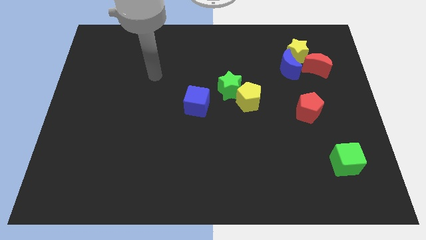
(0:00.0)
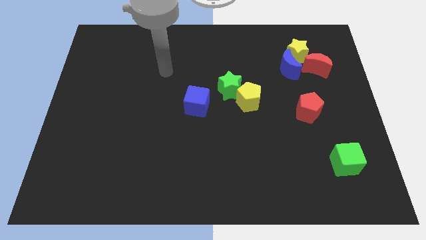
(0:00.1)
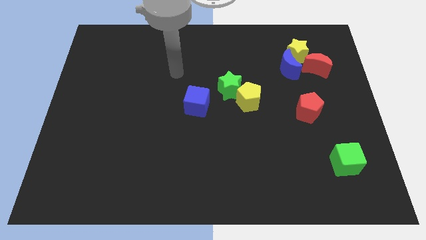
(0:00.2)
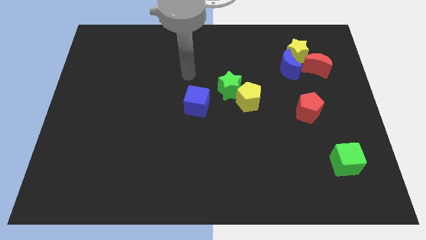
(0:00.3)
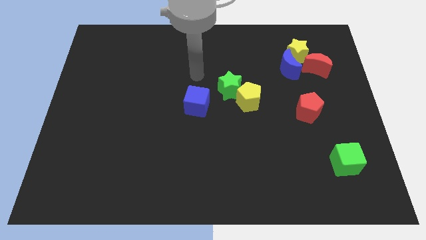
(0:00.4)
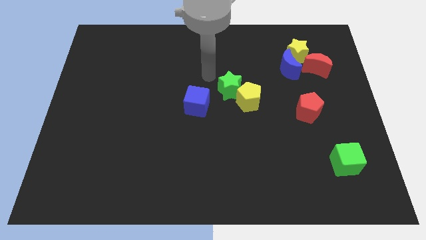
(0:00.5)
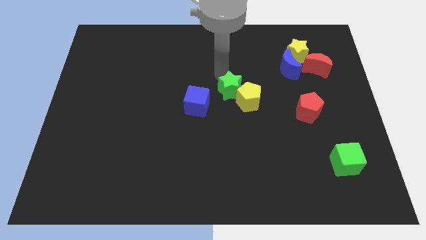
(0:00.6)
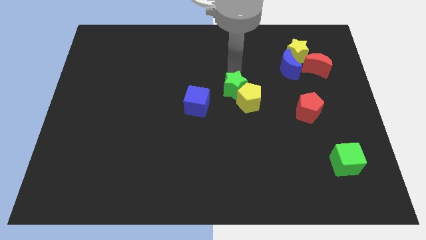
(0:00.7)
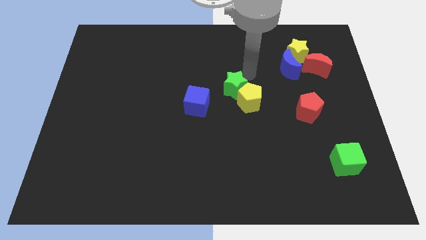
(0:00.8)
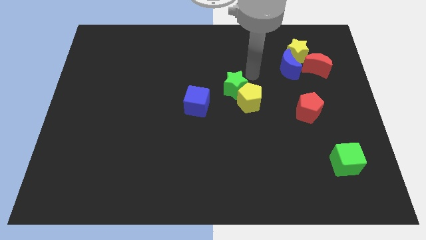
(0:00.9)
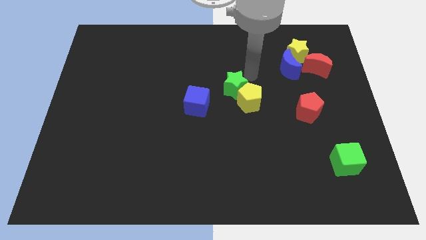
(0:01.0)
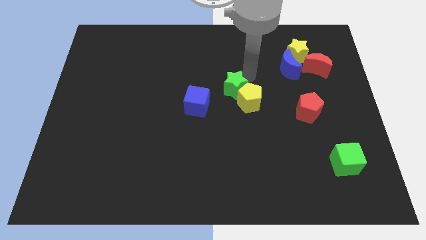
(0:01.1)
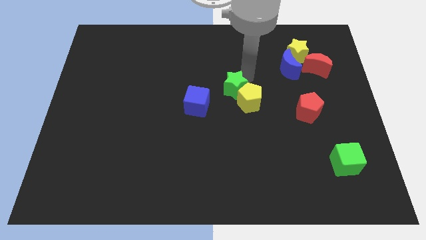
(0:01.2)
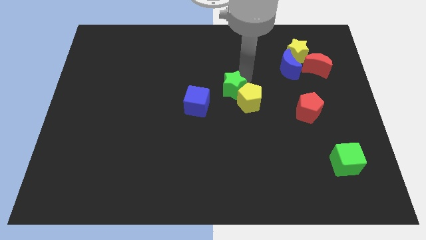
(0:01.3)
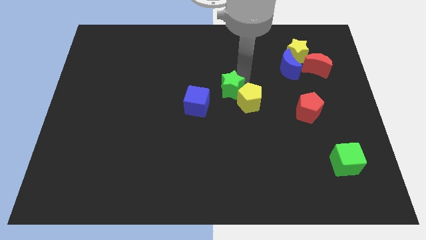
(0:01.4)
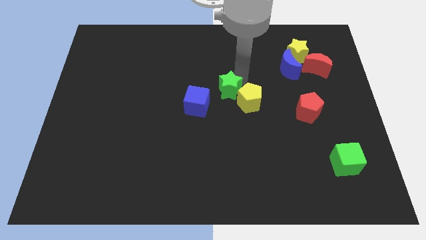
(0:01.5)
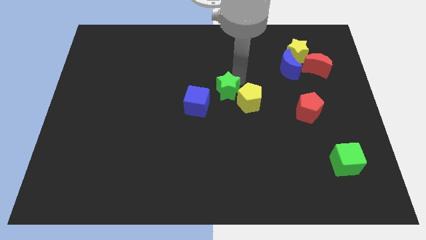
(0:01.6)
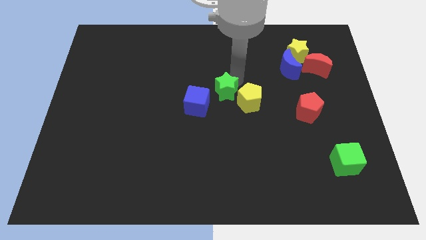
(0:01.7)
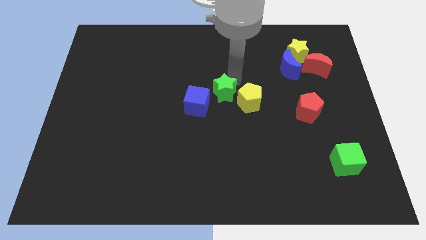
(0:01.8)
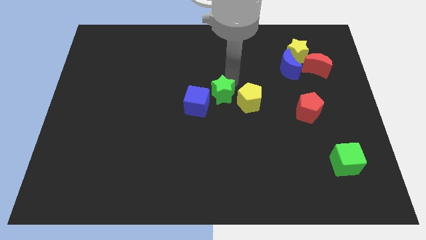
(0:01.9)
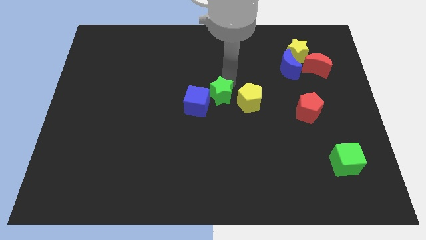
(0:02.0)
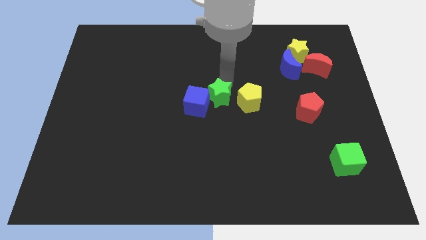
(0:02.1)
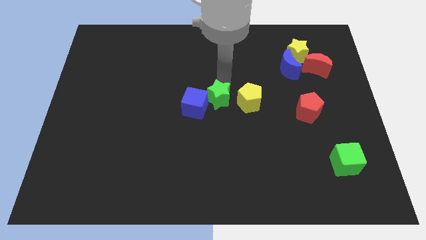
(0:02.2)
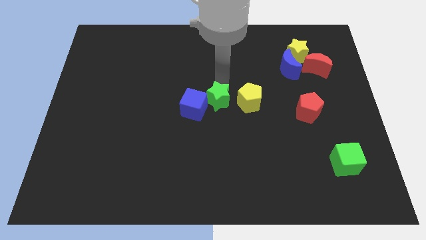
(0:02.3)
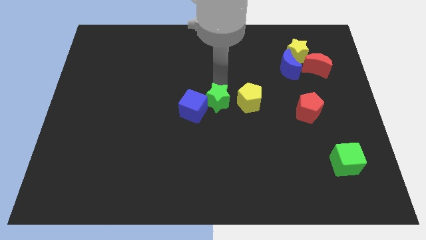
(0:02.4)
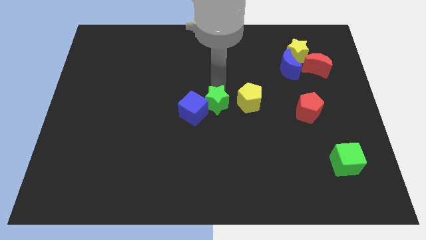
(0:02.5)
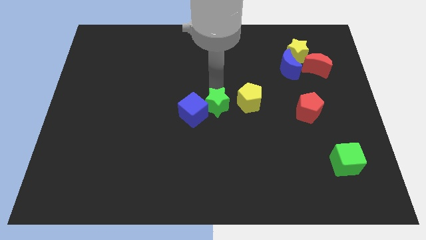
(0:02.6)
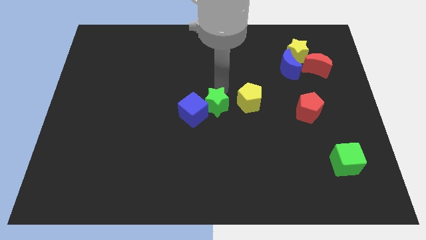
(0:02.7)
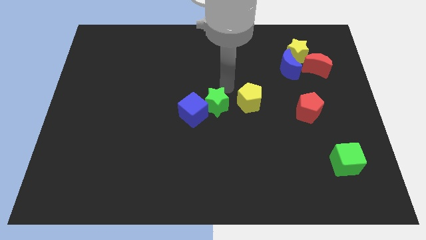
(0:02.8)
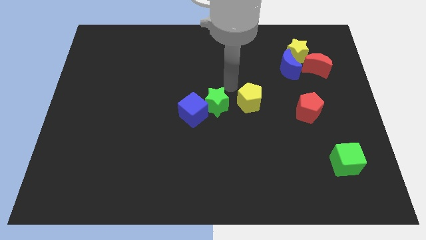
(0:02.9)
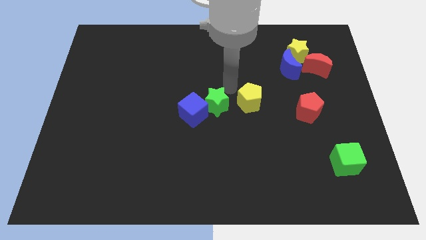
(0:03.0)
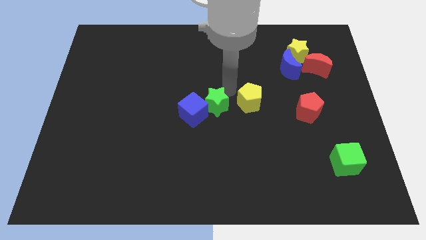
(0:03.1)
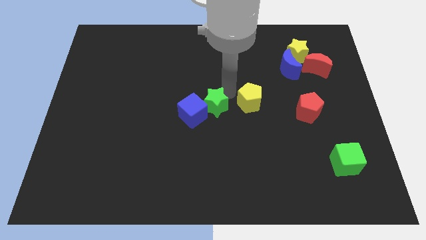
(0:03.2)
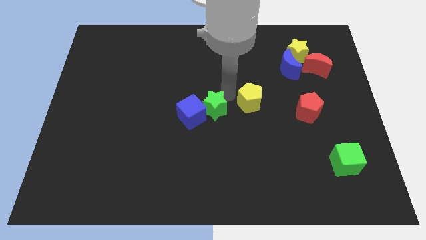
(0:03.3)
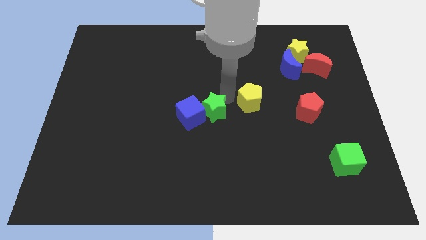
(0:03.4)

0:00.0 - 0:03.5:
slide the green star diagonally down and to the left somewhat

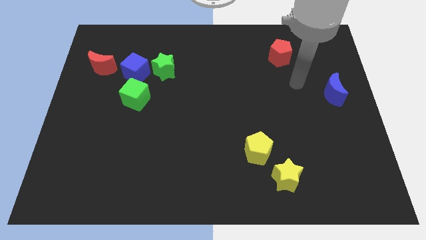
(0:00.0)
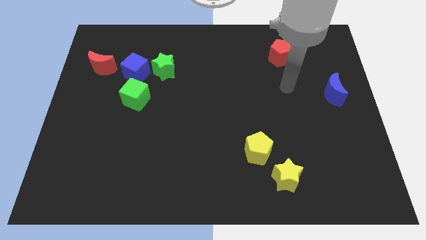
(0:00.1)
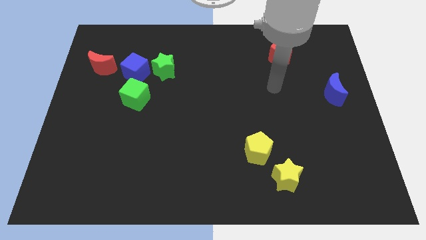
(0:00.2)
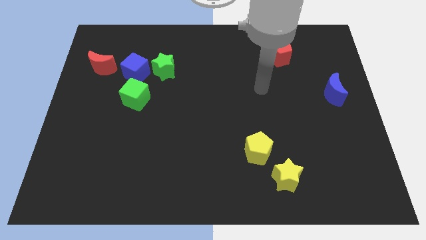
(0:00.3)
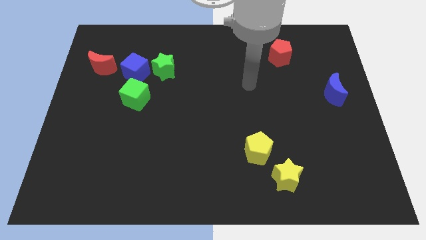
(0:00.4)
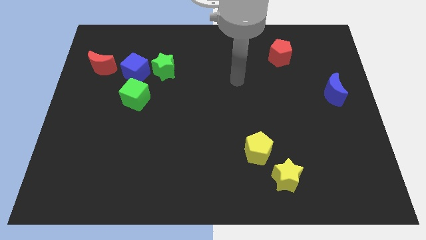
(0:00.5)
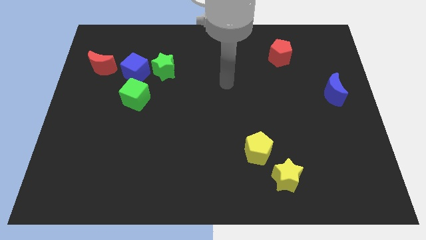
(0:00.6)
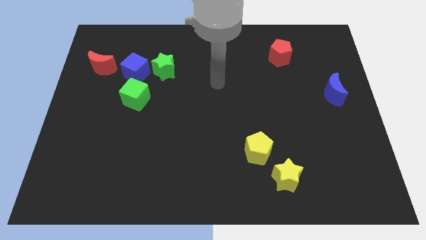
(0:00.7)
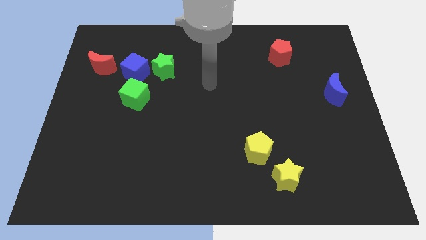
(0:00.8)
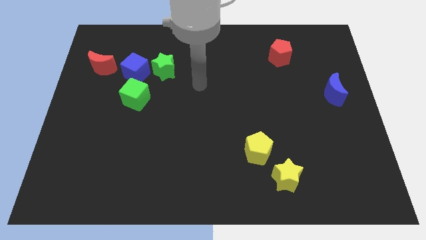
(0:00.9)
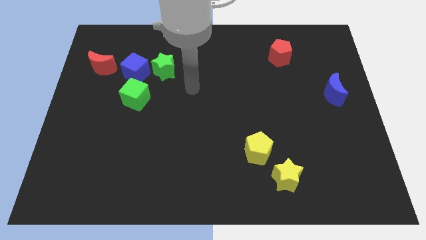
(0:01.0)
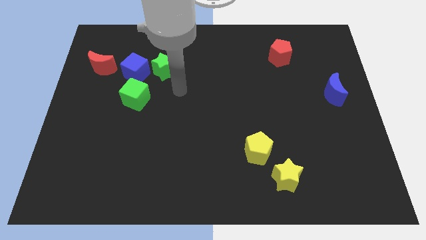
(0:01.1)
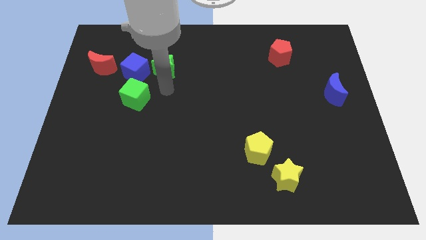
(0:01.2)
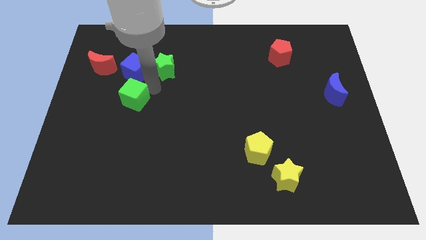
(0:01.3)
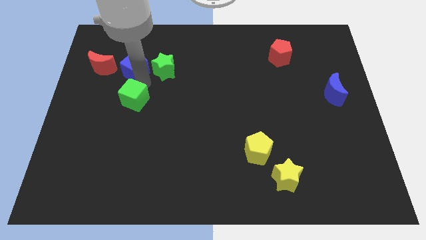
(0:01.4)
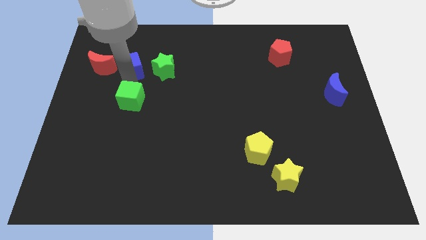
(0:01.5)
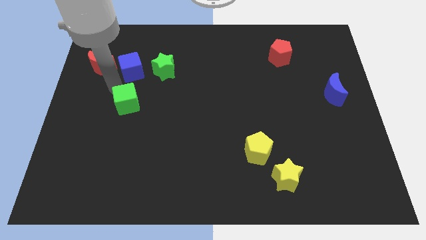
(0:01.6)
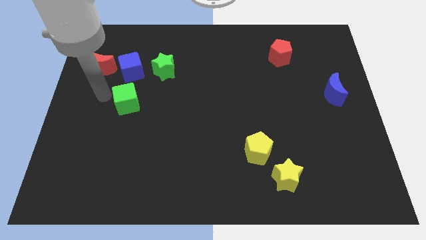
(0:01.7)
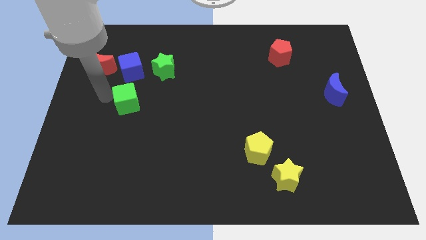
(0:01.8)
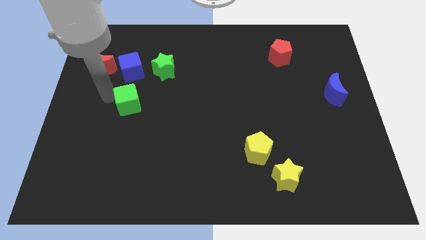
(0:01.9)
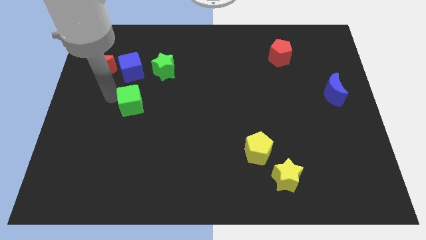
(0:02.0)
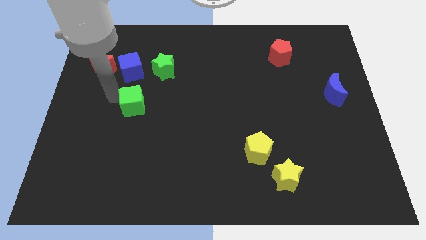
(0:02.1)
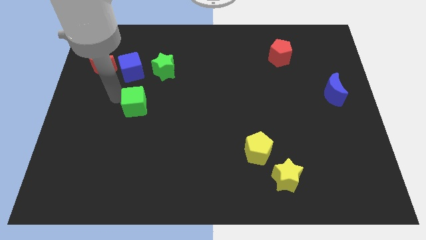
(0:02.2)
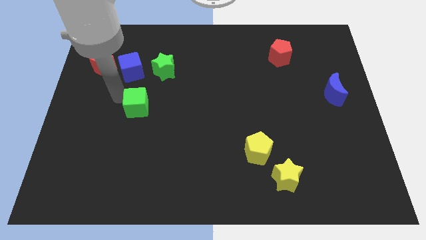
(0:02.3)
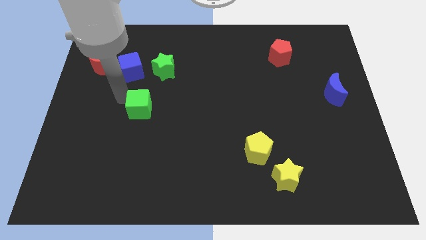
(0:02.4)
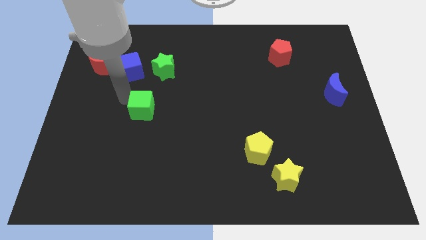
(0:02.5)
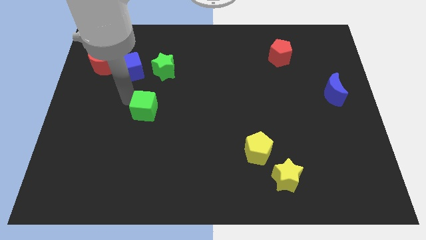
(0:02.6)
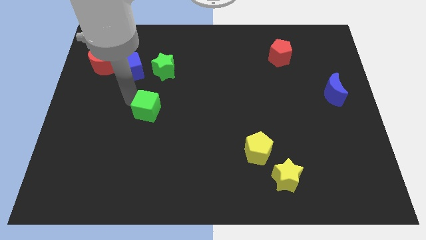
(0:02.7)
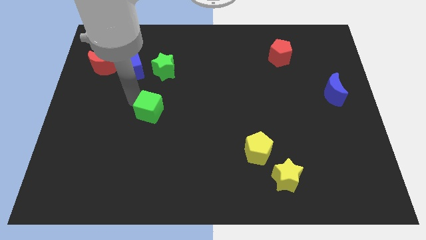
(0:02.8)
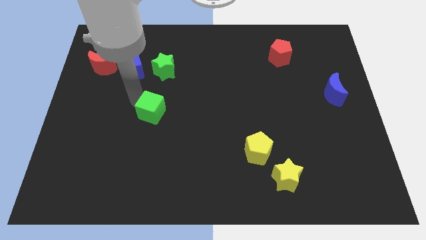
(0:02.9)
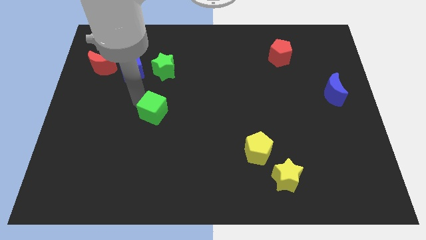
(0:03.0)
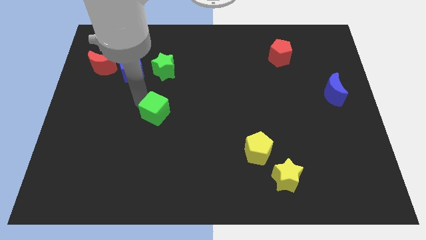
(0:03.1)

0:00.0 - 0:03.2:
push the green cube a little down and right

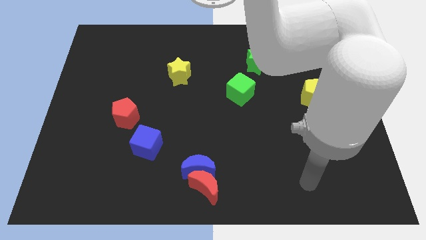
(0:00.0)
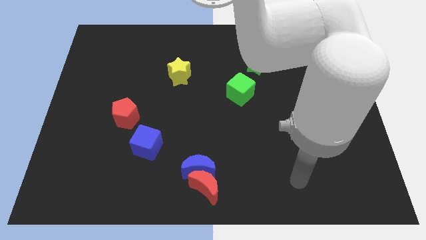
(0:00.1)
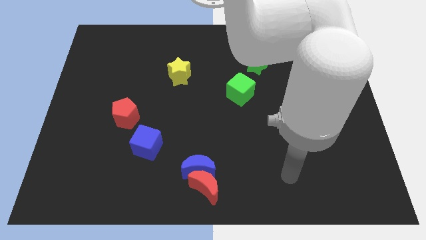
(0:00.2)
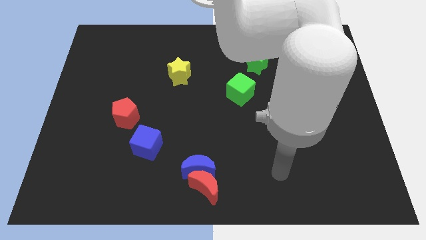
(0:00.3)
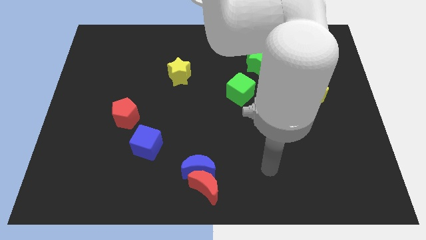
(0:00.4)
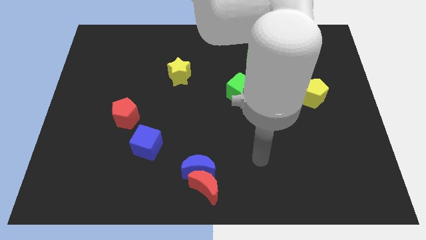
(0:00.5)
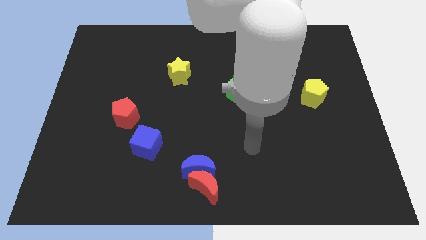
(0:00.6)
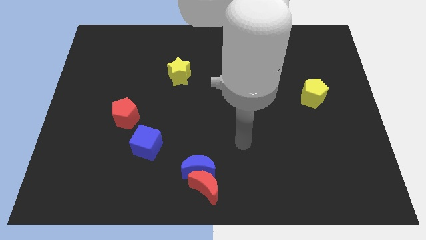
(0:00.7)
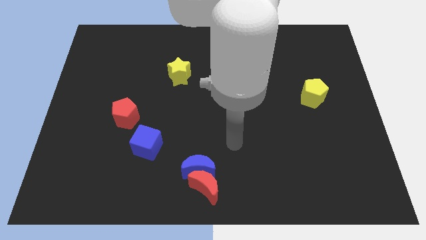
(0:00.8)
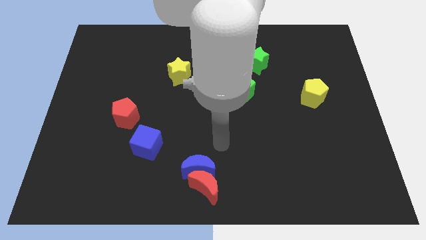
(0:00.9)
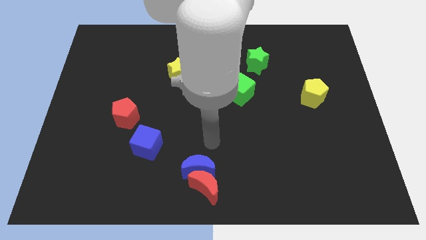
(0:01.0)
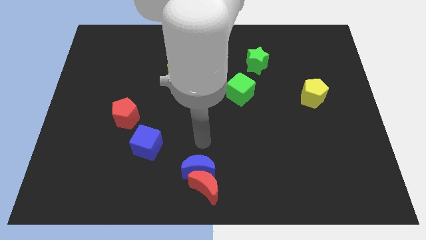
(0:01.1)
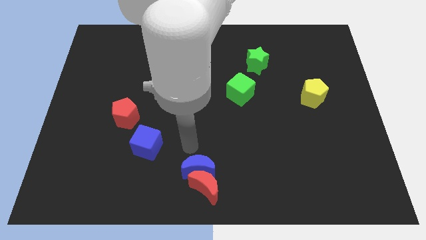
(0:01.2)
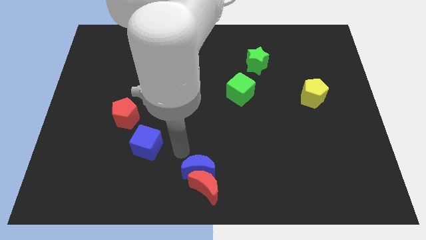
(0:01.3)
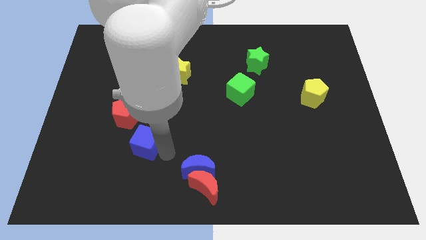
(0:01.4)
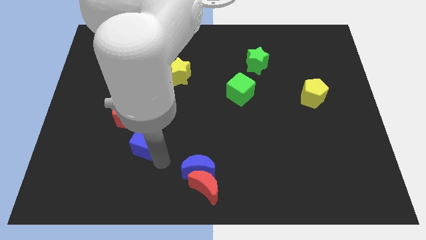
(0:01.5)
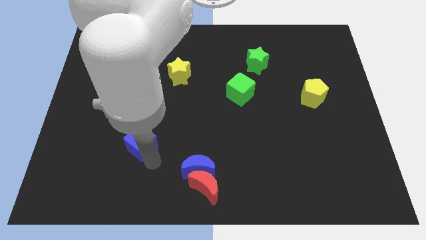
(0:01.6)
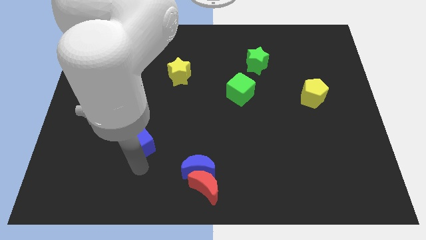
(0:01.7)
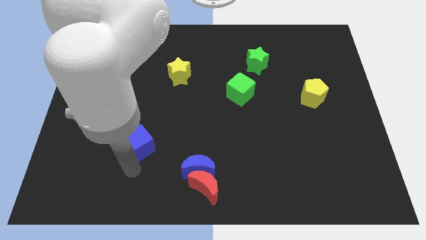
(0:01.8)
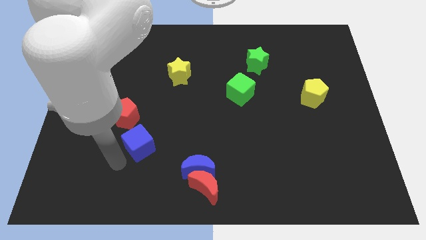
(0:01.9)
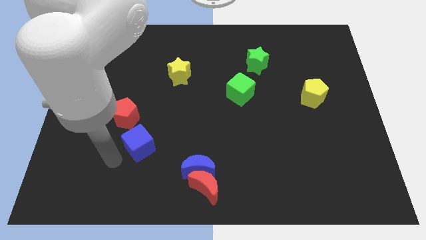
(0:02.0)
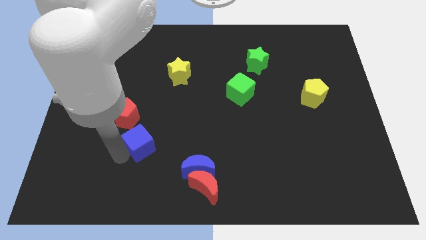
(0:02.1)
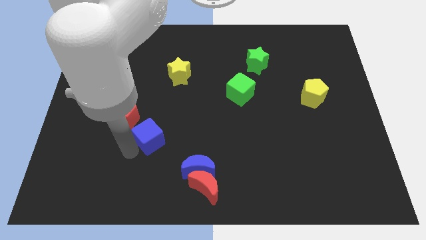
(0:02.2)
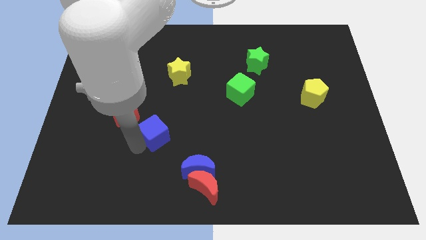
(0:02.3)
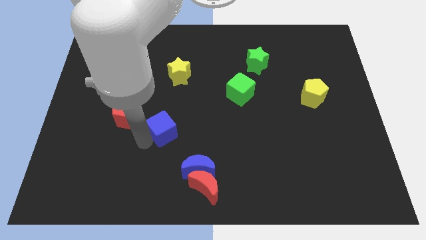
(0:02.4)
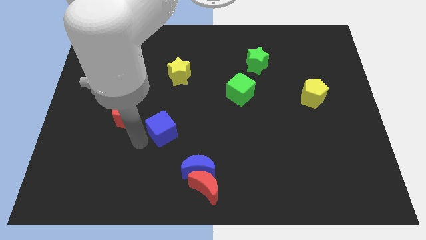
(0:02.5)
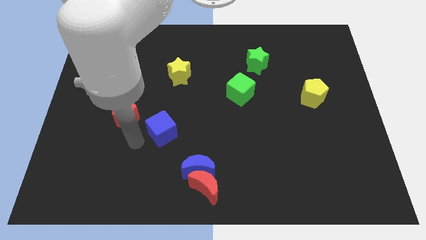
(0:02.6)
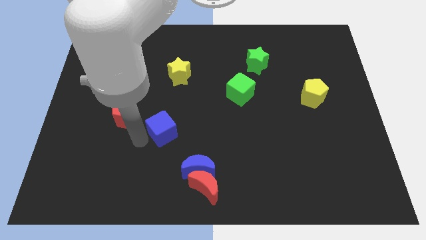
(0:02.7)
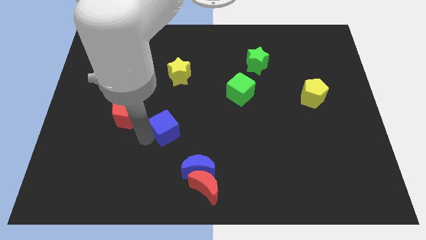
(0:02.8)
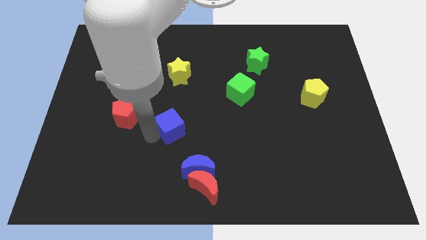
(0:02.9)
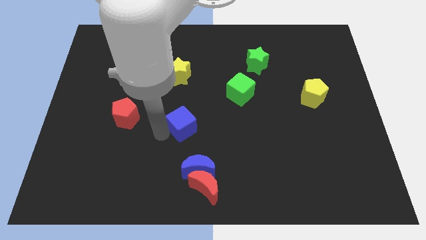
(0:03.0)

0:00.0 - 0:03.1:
push the blue cube a little upwards and then to the right
